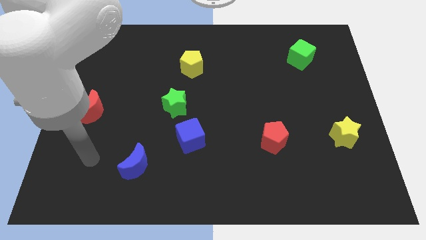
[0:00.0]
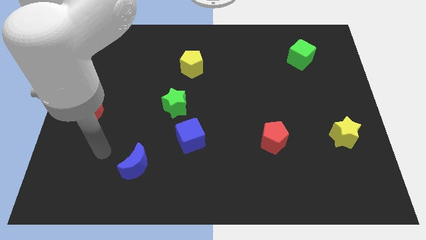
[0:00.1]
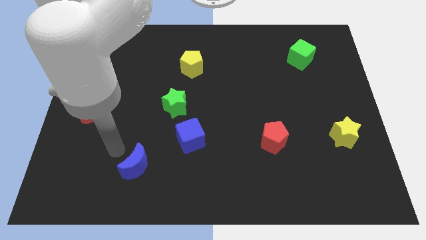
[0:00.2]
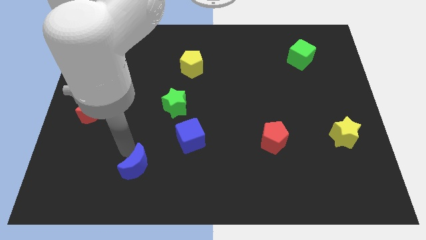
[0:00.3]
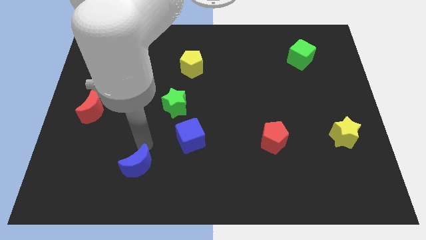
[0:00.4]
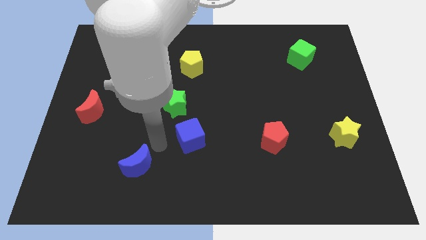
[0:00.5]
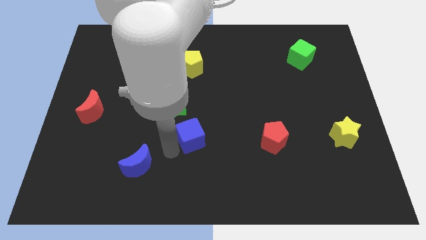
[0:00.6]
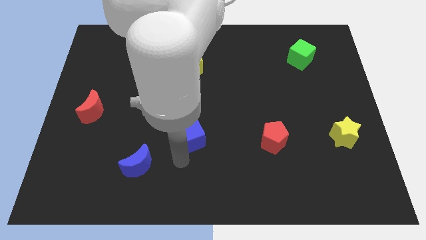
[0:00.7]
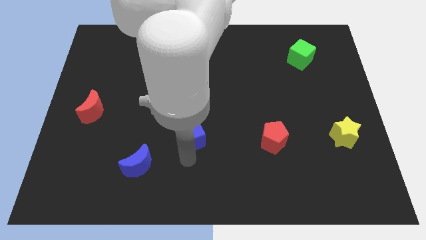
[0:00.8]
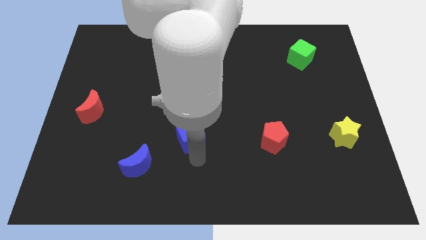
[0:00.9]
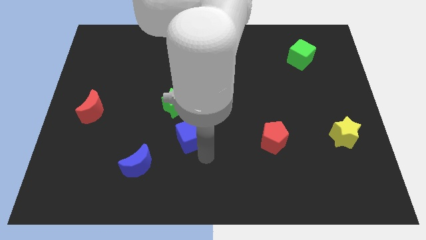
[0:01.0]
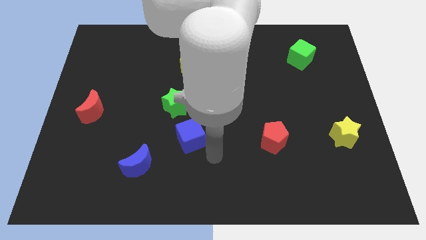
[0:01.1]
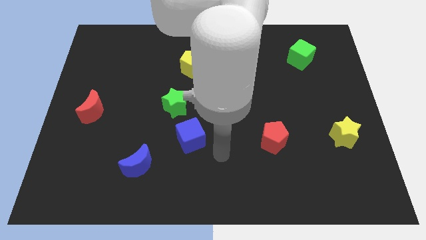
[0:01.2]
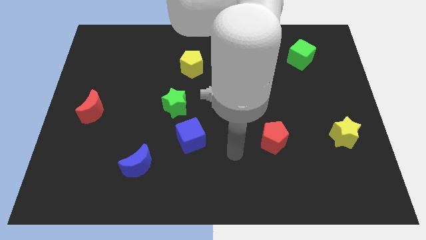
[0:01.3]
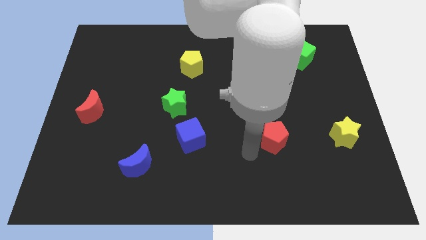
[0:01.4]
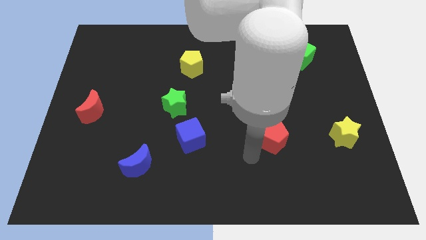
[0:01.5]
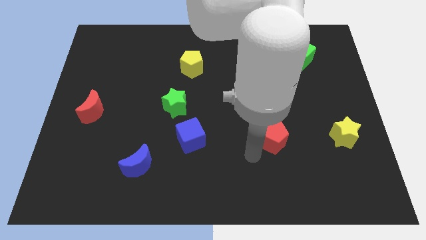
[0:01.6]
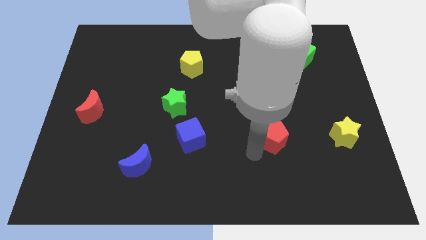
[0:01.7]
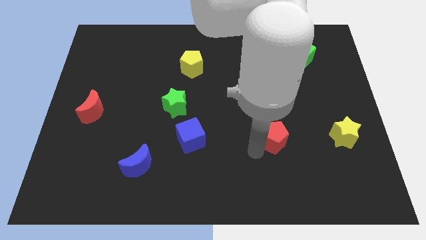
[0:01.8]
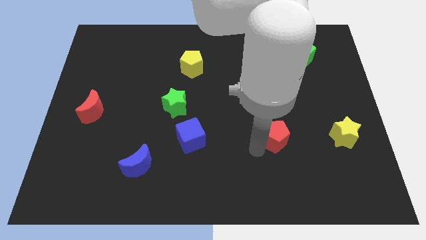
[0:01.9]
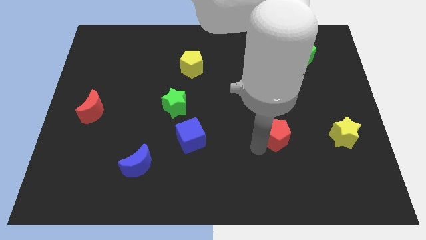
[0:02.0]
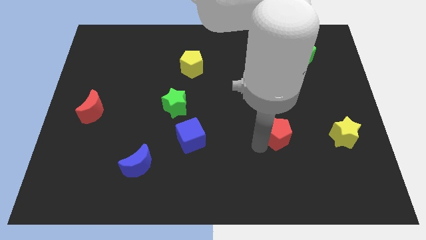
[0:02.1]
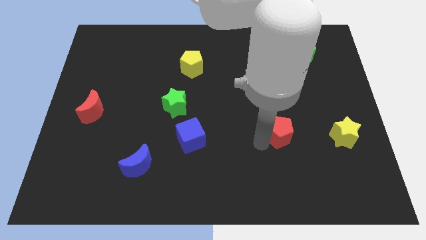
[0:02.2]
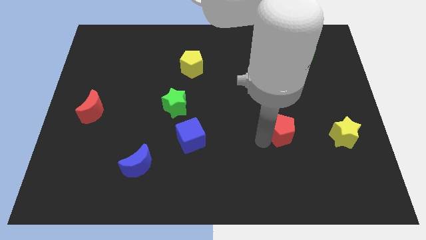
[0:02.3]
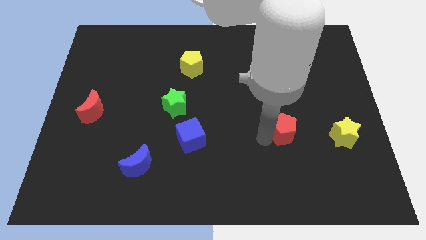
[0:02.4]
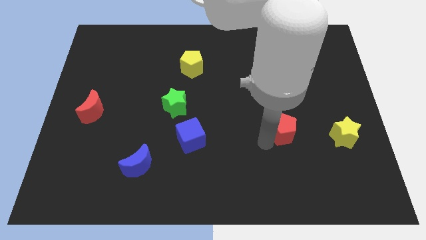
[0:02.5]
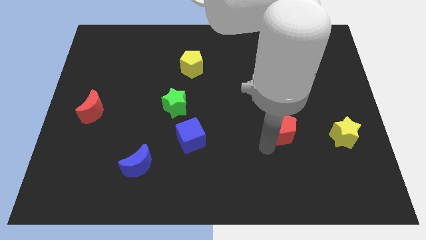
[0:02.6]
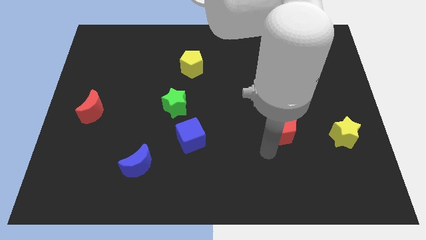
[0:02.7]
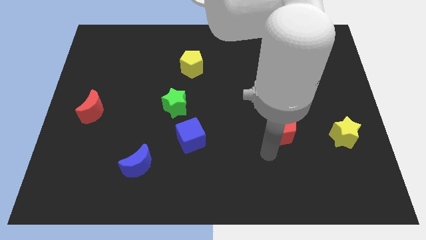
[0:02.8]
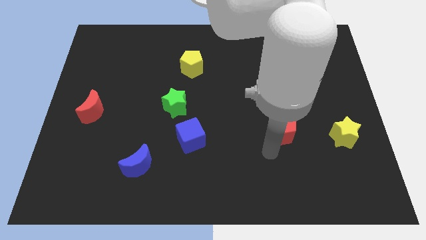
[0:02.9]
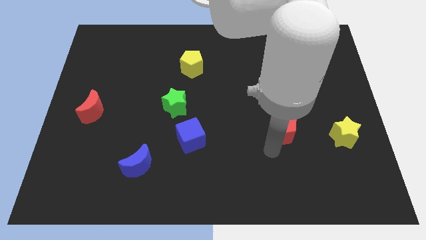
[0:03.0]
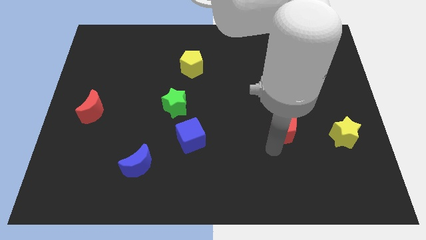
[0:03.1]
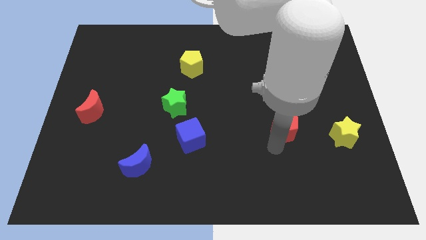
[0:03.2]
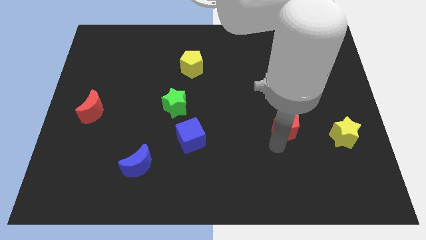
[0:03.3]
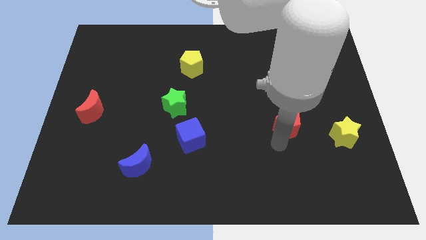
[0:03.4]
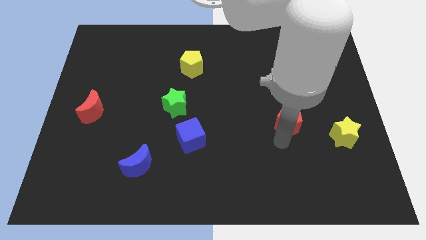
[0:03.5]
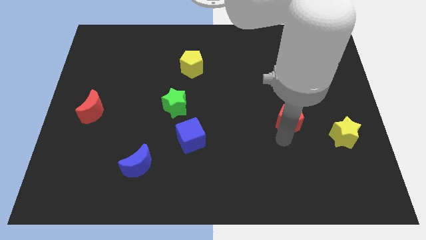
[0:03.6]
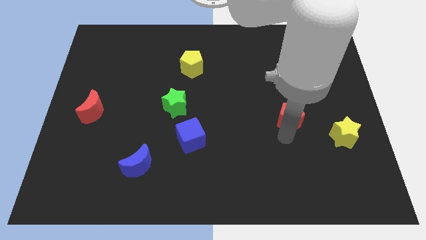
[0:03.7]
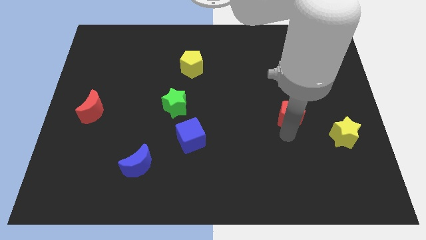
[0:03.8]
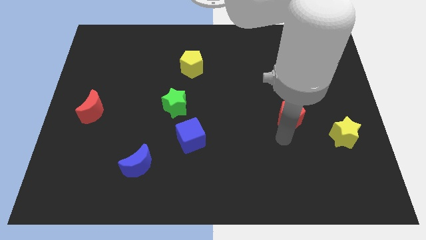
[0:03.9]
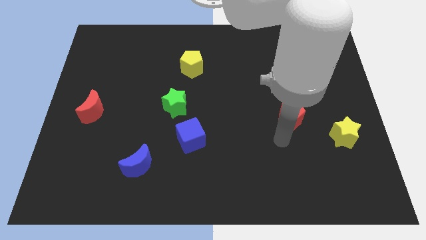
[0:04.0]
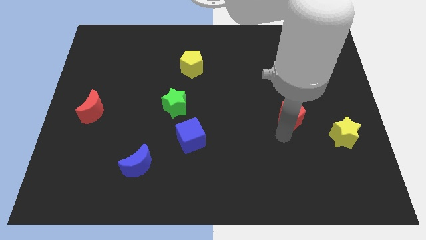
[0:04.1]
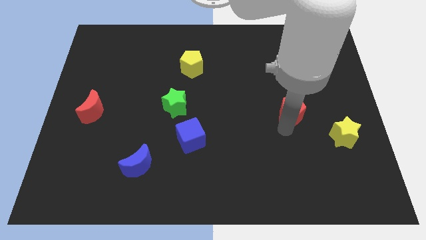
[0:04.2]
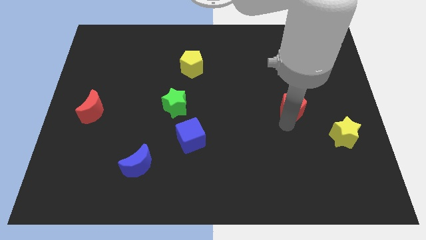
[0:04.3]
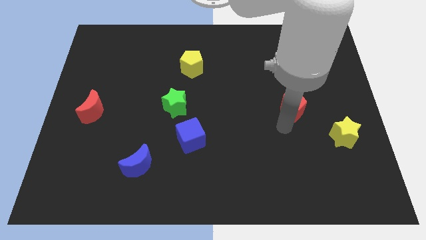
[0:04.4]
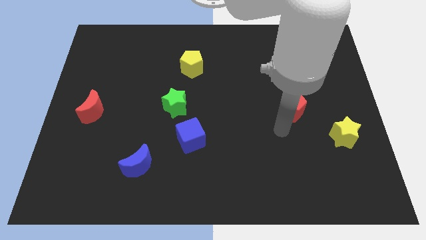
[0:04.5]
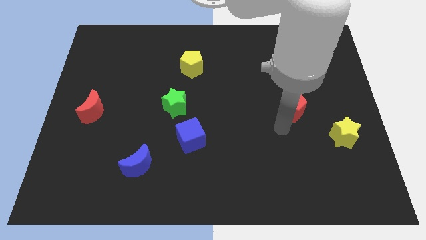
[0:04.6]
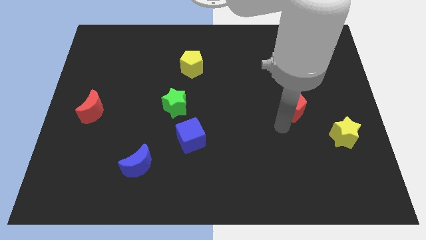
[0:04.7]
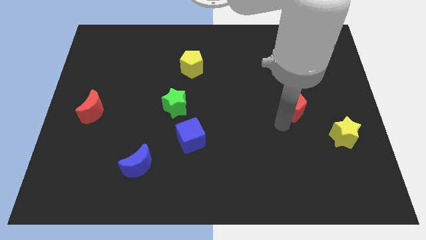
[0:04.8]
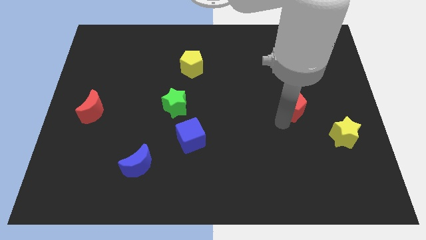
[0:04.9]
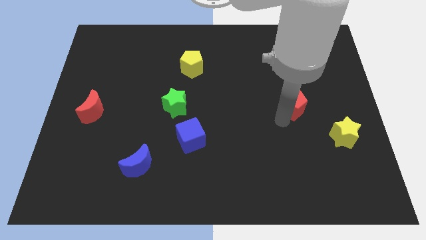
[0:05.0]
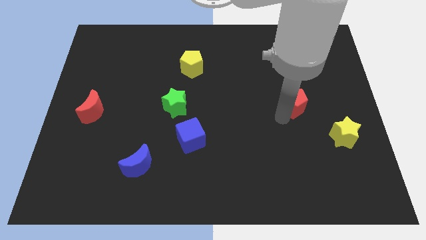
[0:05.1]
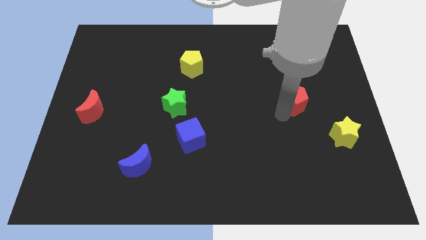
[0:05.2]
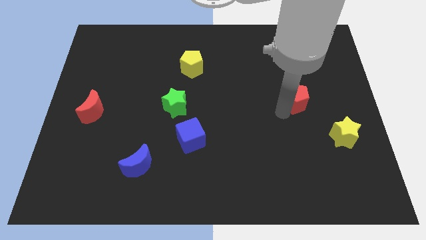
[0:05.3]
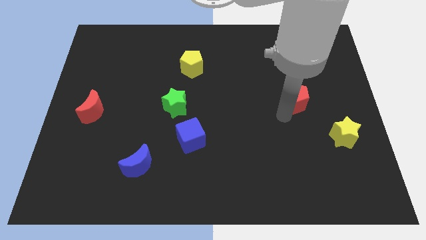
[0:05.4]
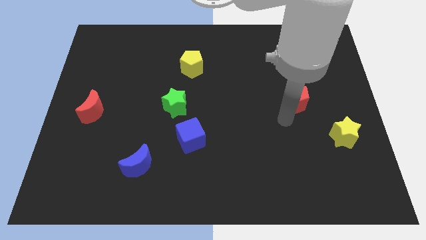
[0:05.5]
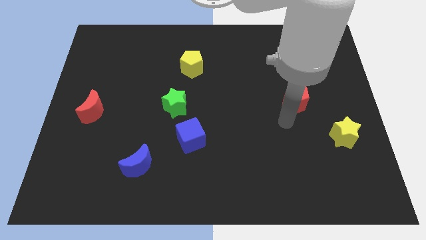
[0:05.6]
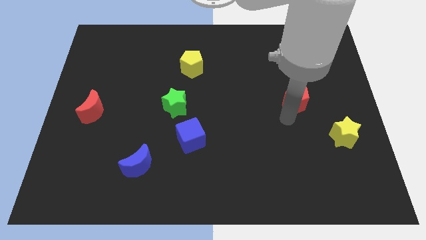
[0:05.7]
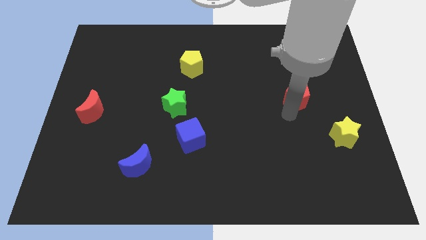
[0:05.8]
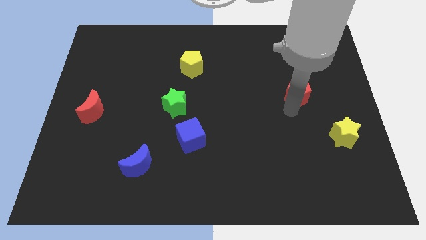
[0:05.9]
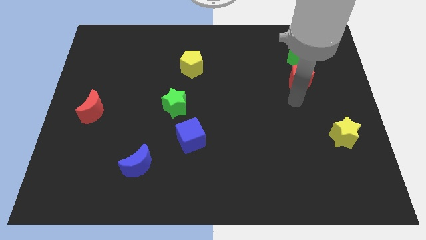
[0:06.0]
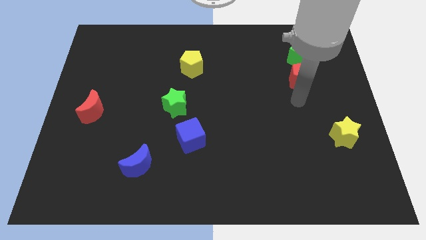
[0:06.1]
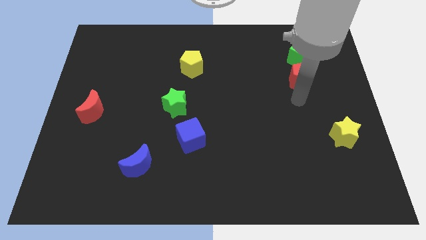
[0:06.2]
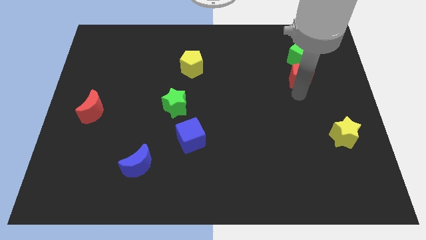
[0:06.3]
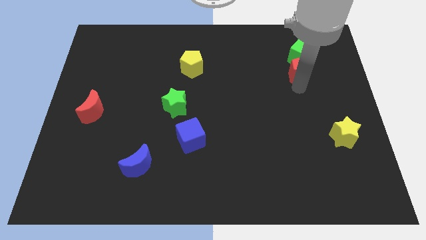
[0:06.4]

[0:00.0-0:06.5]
put the red pentagon towards the green cube
